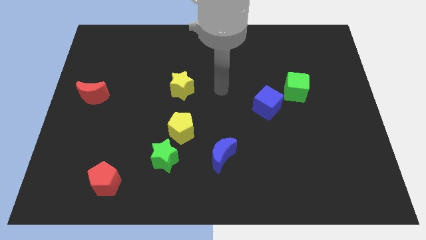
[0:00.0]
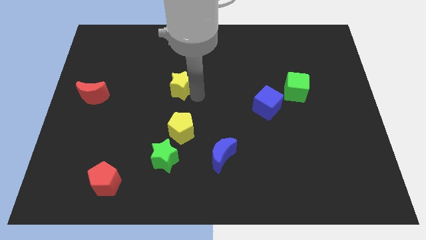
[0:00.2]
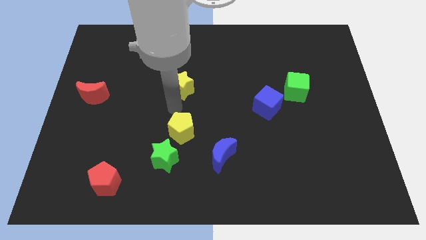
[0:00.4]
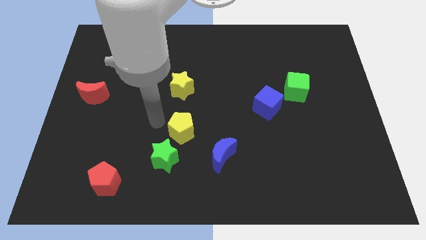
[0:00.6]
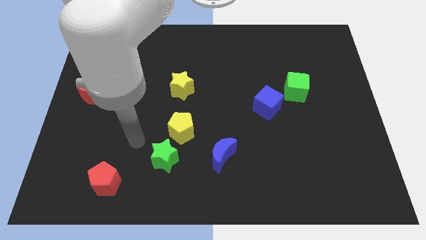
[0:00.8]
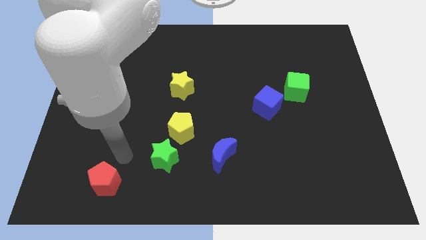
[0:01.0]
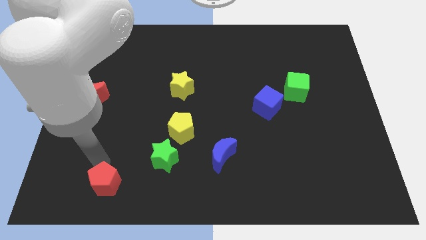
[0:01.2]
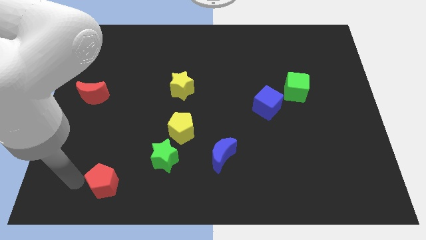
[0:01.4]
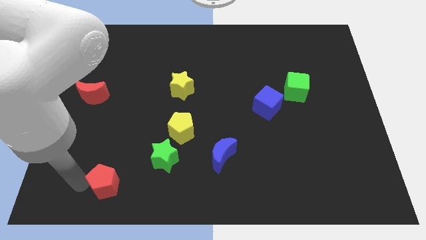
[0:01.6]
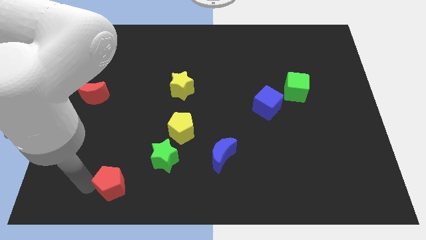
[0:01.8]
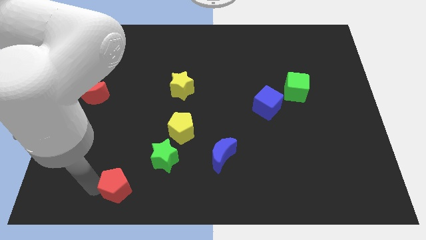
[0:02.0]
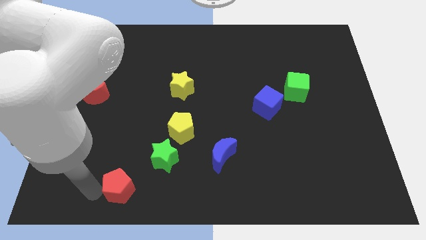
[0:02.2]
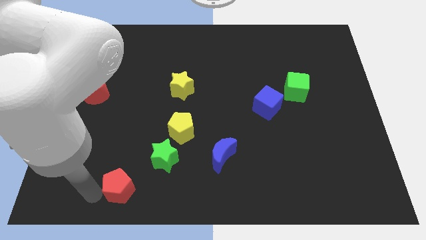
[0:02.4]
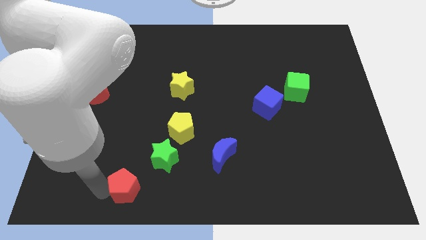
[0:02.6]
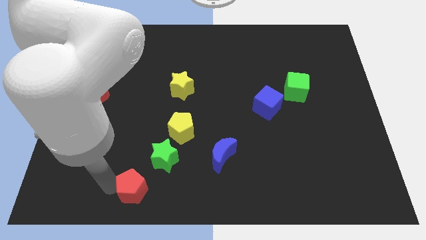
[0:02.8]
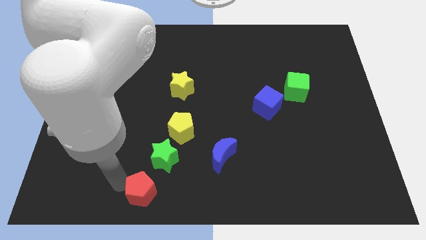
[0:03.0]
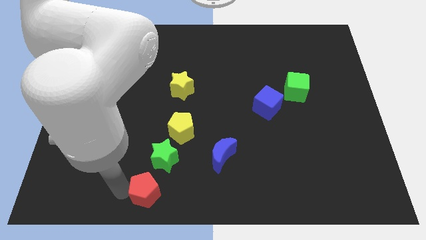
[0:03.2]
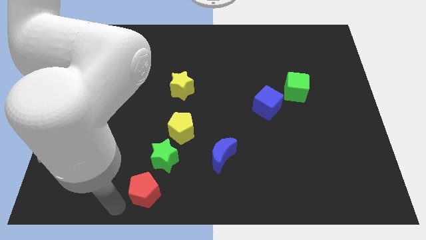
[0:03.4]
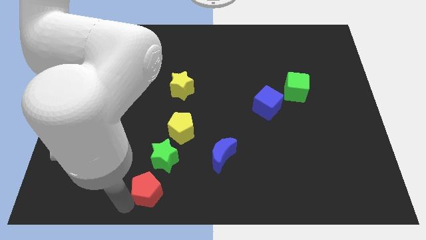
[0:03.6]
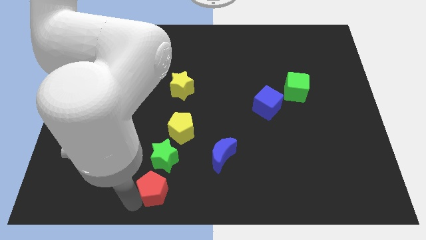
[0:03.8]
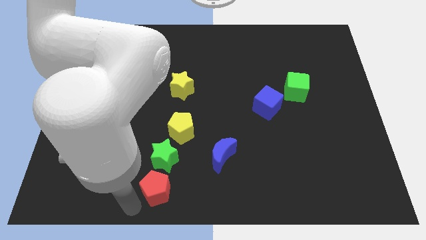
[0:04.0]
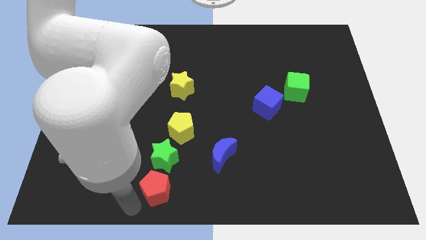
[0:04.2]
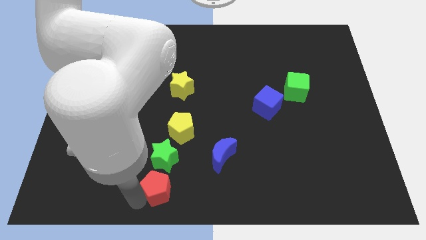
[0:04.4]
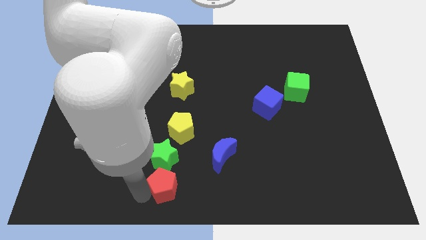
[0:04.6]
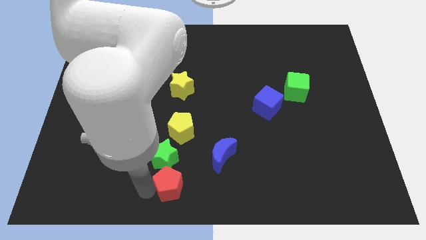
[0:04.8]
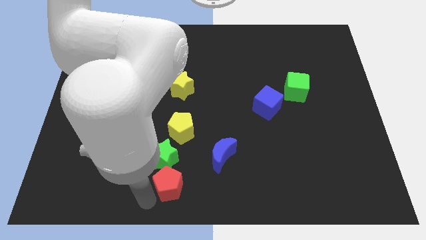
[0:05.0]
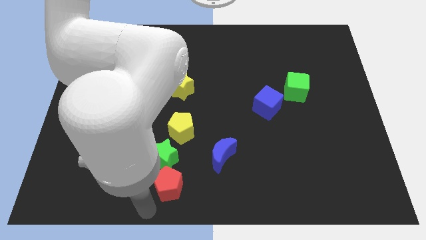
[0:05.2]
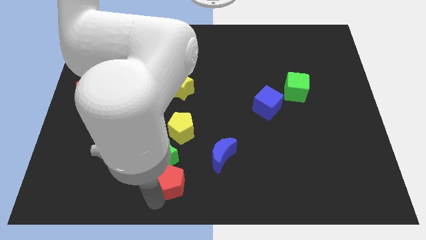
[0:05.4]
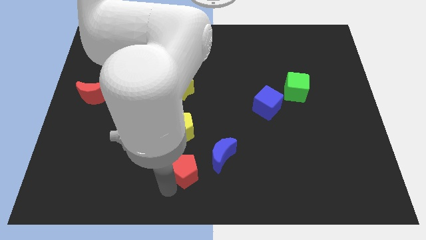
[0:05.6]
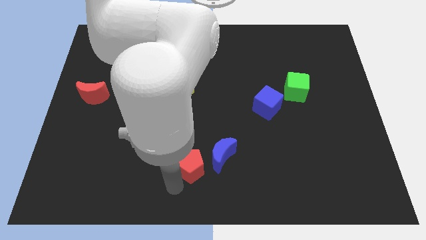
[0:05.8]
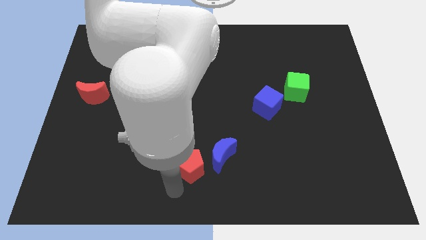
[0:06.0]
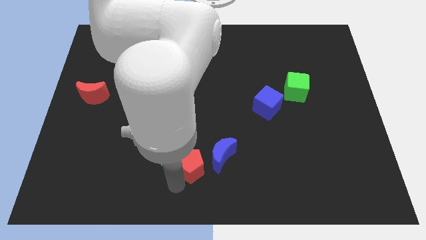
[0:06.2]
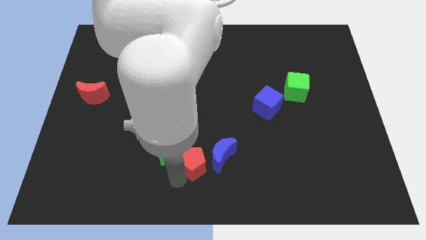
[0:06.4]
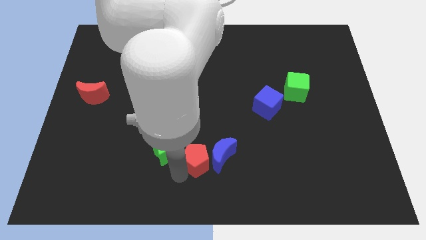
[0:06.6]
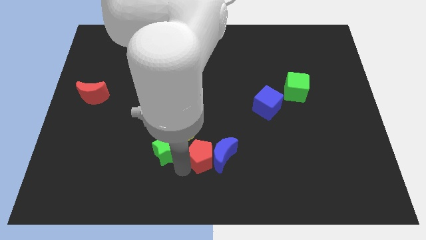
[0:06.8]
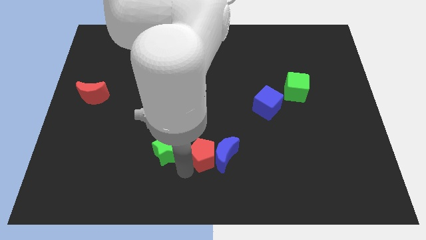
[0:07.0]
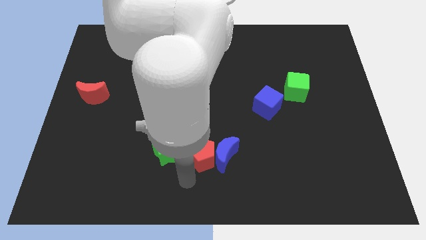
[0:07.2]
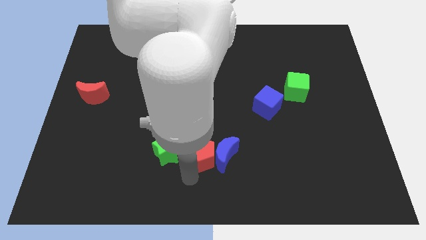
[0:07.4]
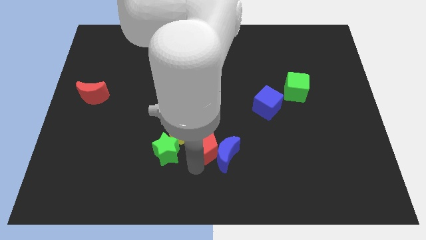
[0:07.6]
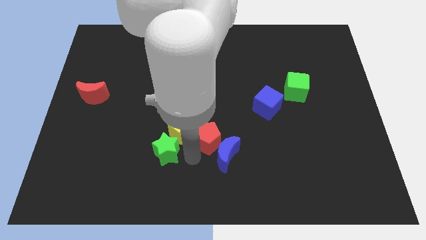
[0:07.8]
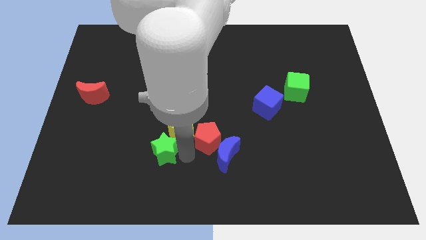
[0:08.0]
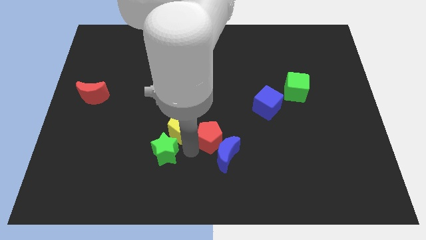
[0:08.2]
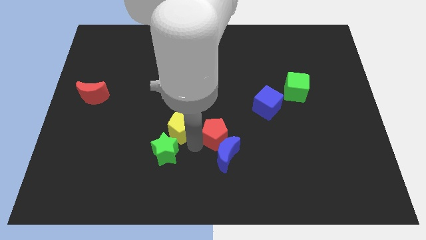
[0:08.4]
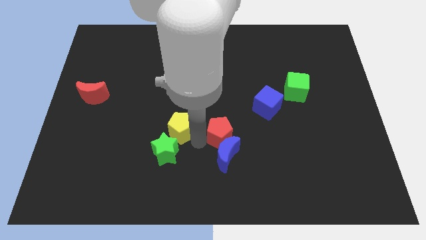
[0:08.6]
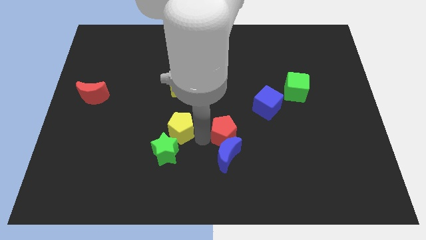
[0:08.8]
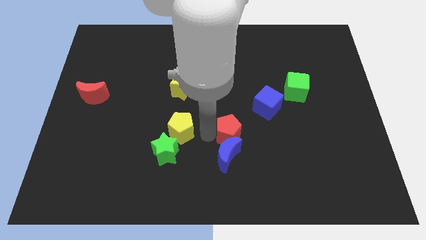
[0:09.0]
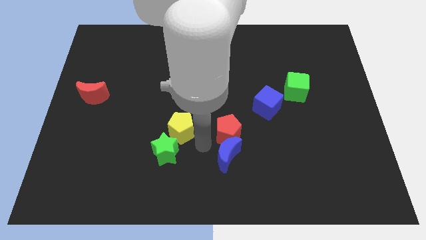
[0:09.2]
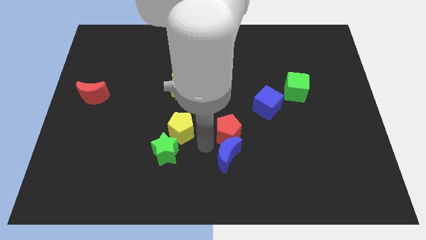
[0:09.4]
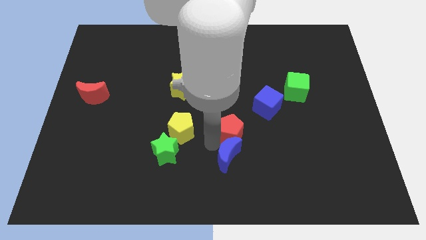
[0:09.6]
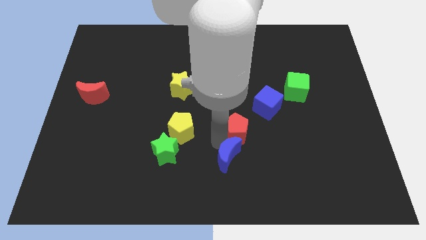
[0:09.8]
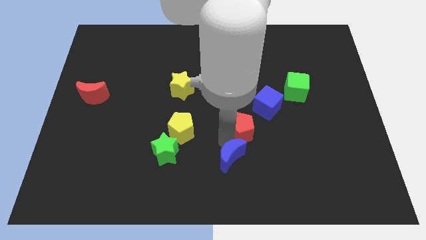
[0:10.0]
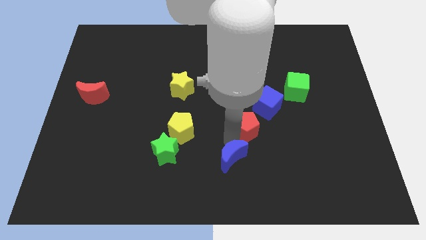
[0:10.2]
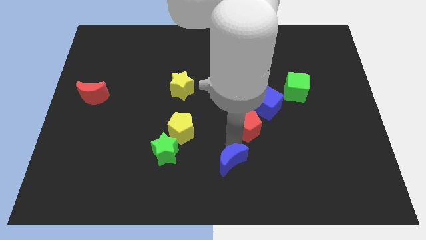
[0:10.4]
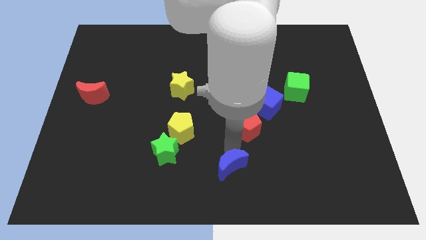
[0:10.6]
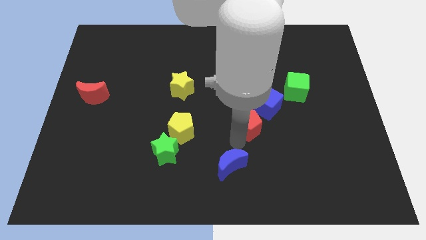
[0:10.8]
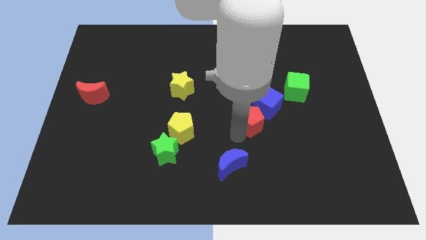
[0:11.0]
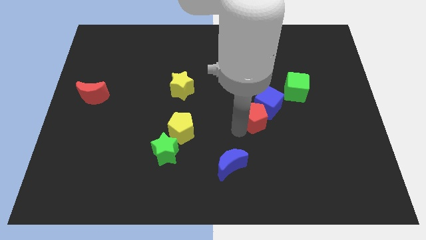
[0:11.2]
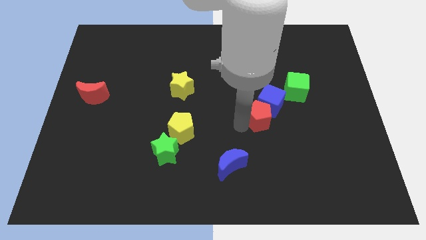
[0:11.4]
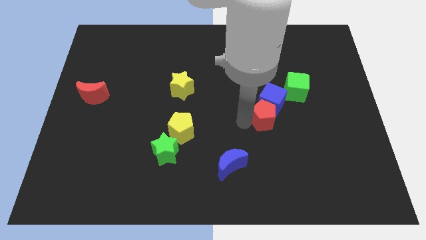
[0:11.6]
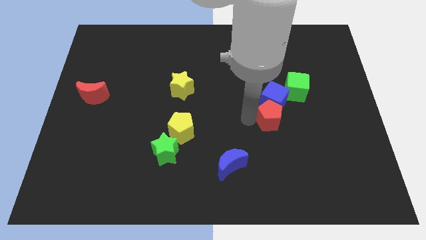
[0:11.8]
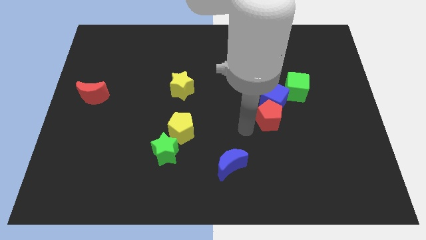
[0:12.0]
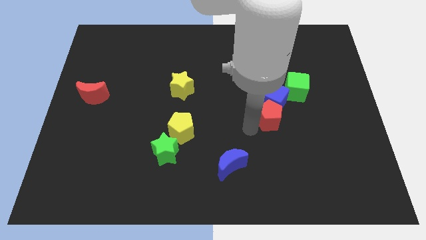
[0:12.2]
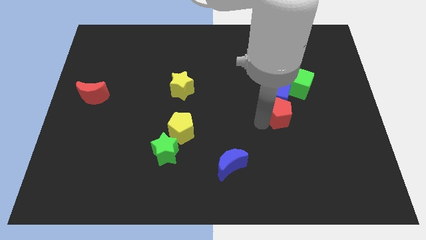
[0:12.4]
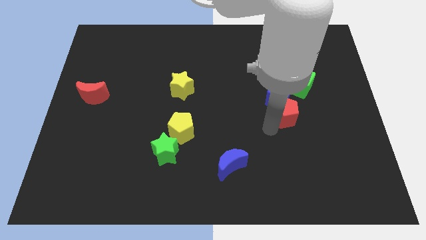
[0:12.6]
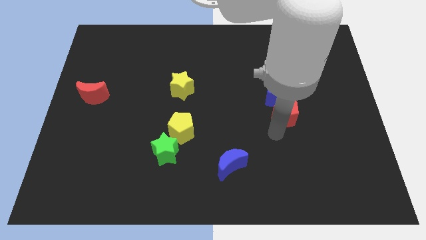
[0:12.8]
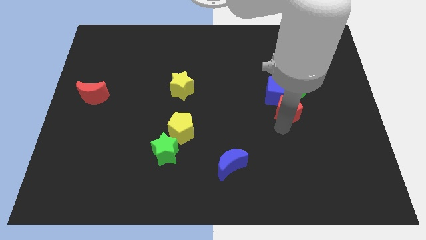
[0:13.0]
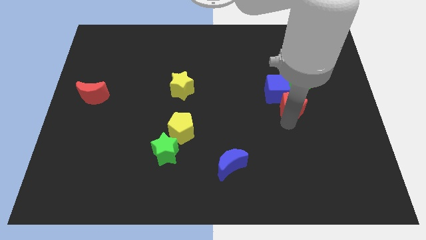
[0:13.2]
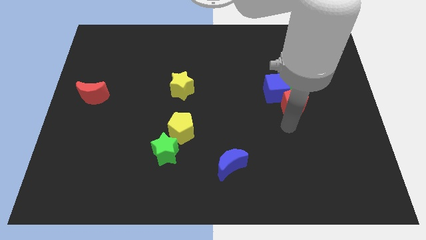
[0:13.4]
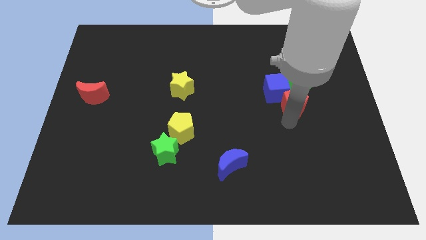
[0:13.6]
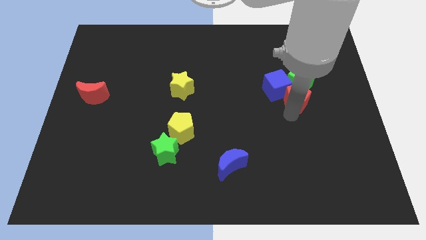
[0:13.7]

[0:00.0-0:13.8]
push the red pentagon towards the green cube

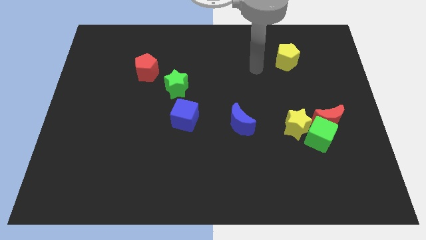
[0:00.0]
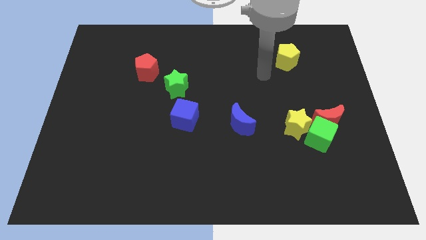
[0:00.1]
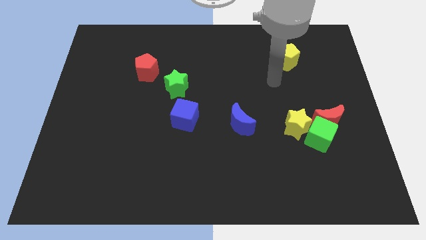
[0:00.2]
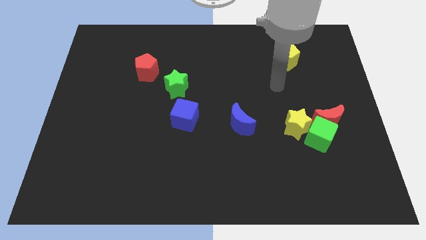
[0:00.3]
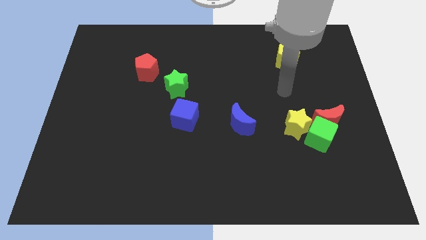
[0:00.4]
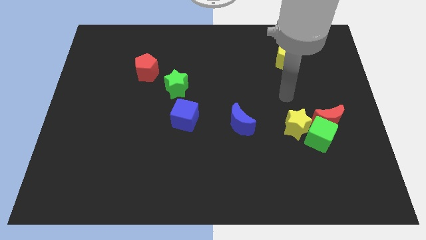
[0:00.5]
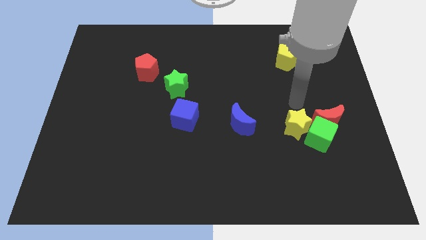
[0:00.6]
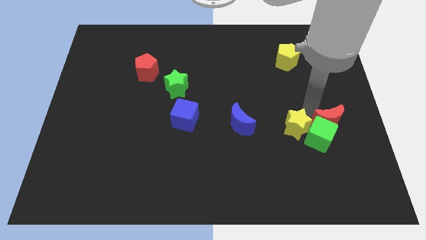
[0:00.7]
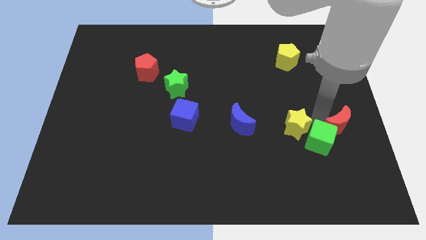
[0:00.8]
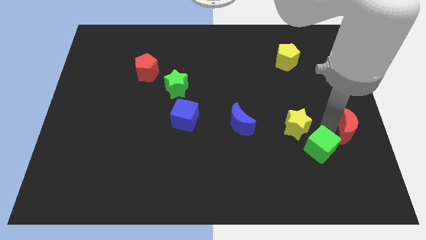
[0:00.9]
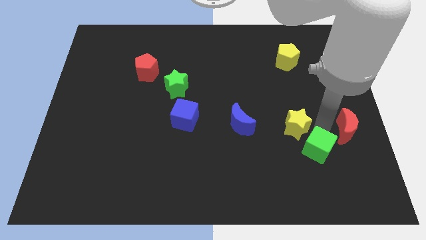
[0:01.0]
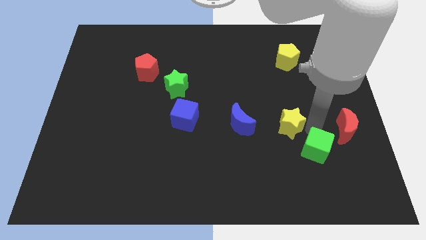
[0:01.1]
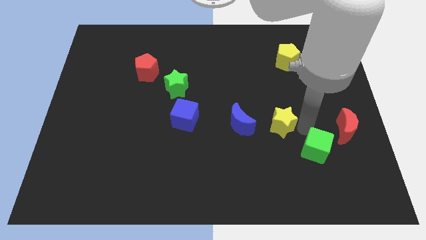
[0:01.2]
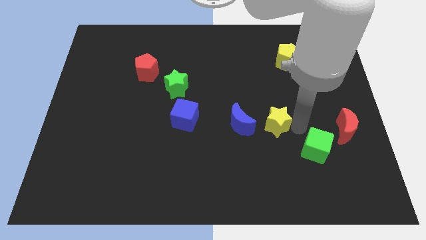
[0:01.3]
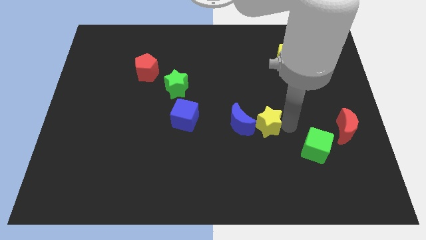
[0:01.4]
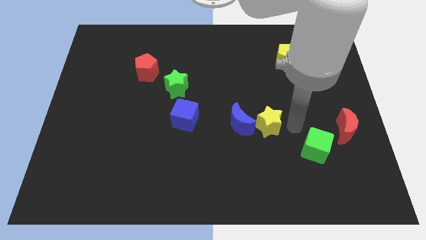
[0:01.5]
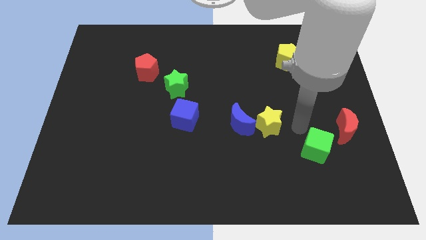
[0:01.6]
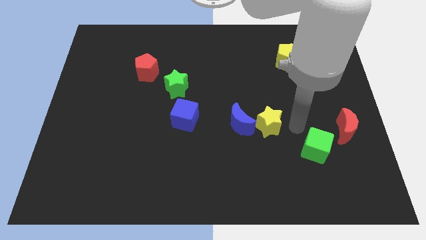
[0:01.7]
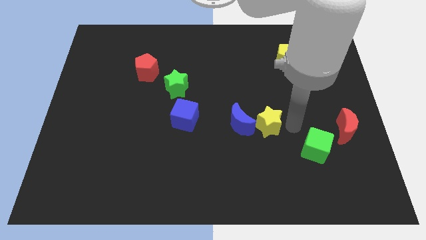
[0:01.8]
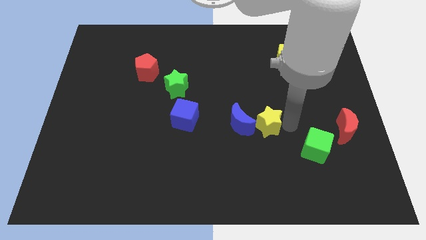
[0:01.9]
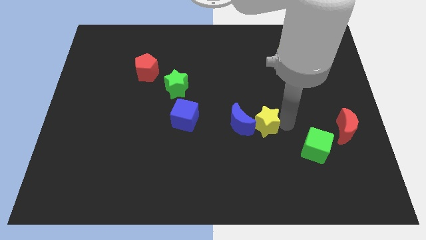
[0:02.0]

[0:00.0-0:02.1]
put the yellow star to the blue moon
